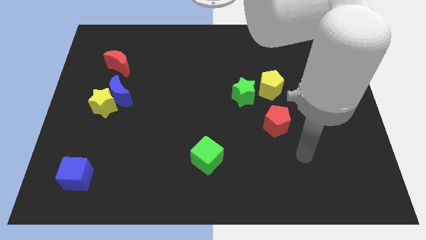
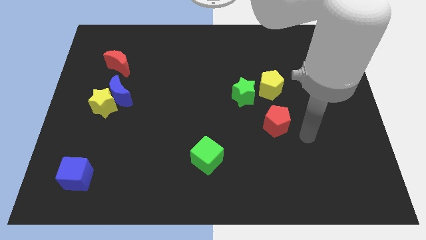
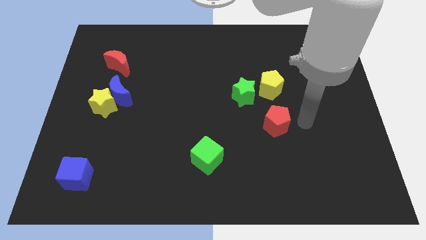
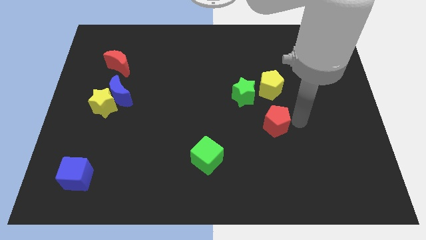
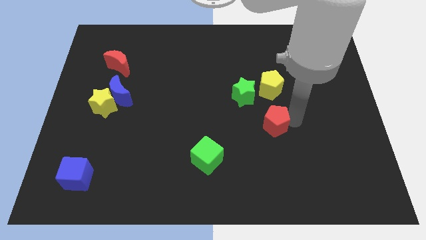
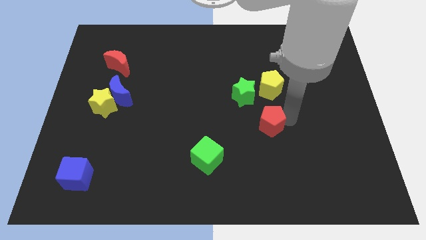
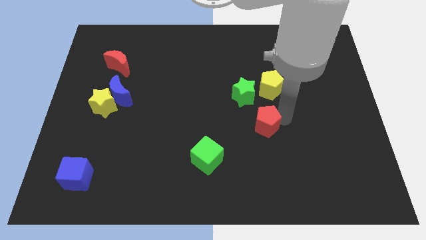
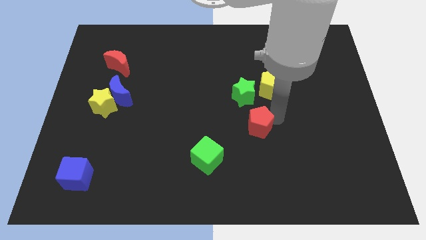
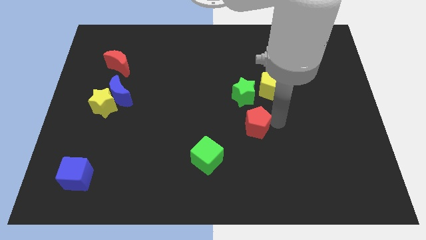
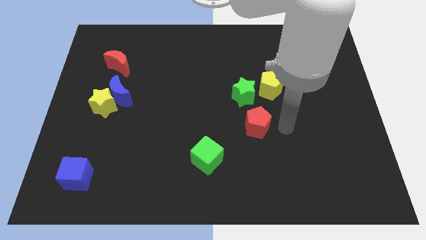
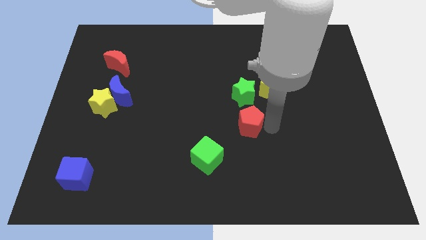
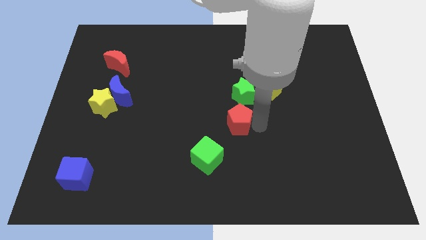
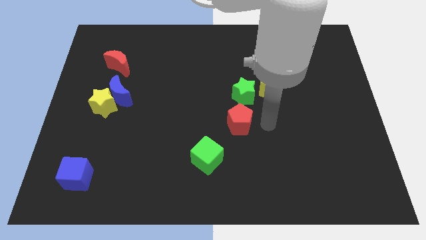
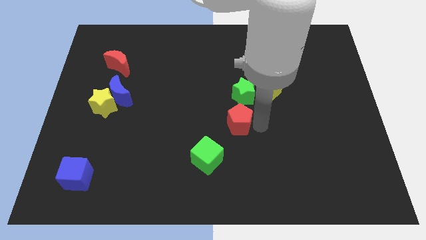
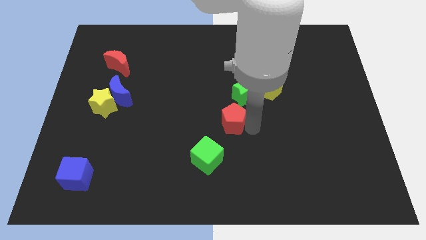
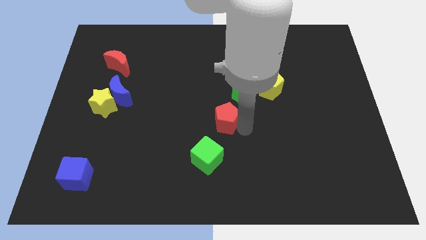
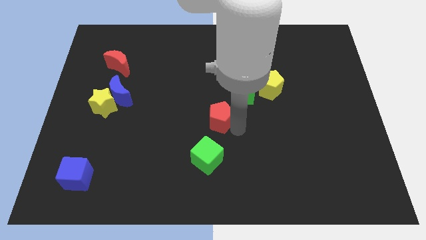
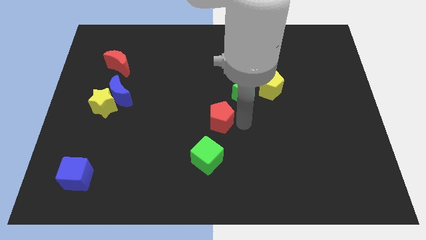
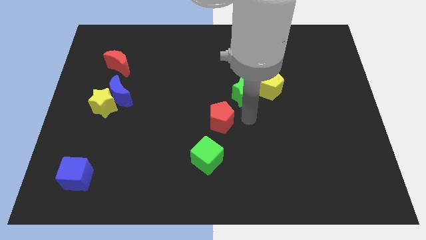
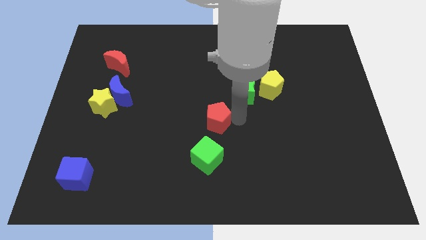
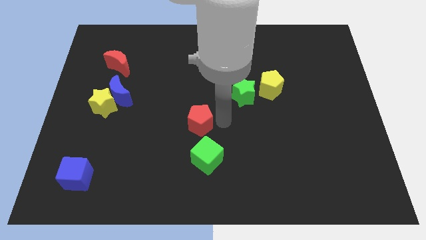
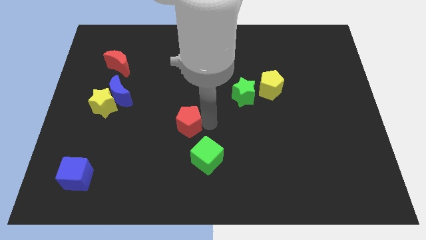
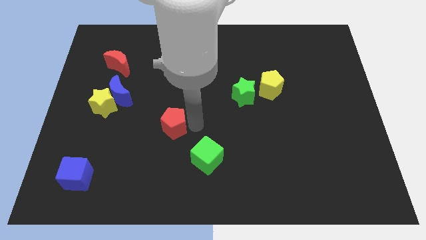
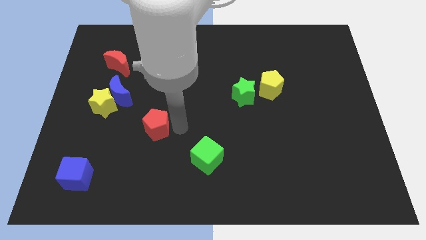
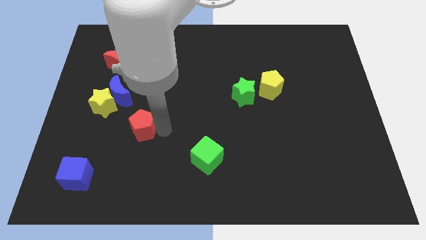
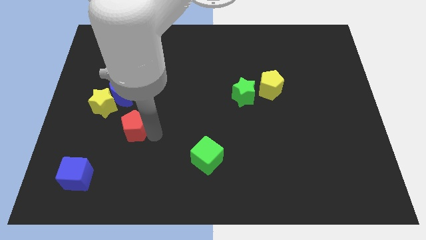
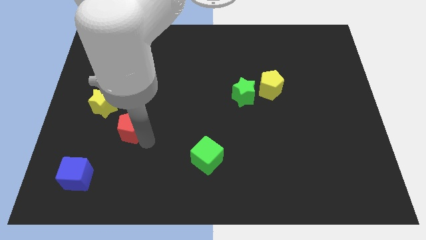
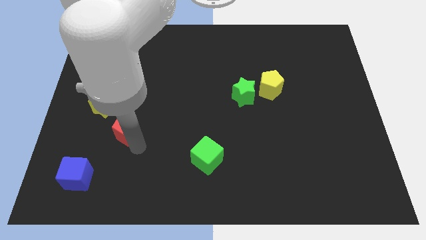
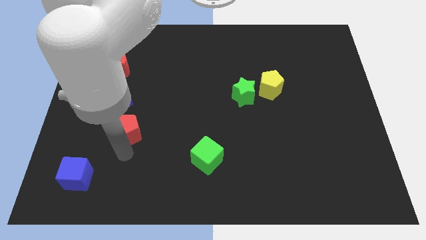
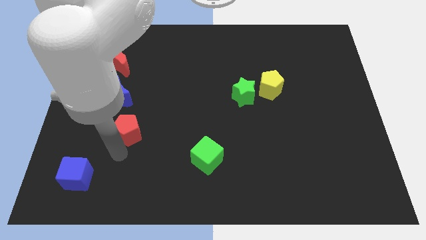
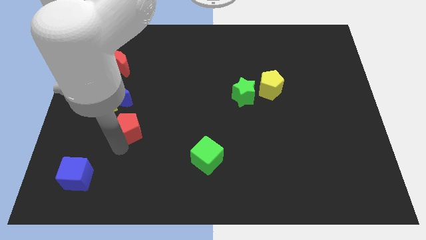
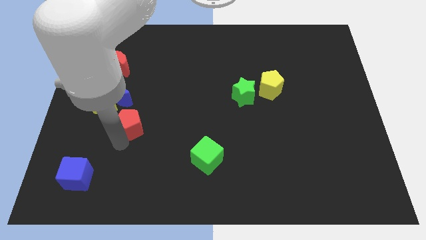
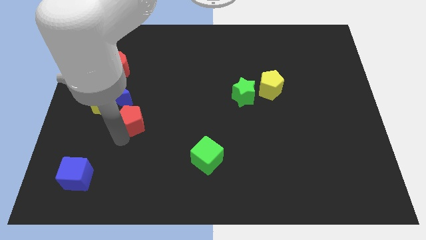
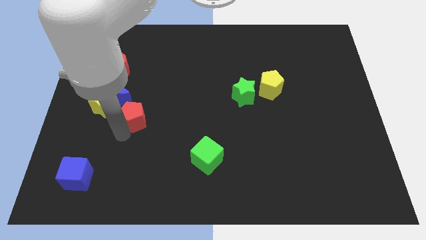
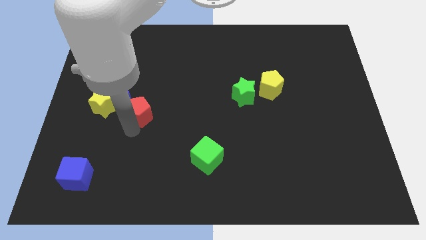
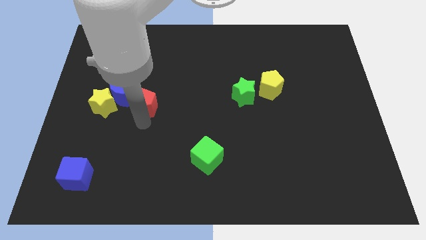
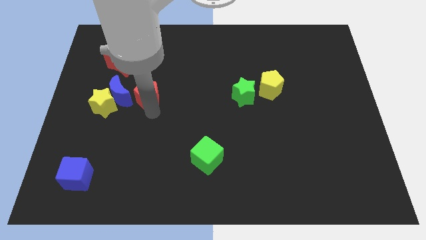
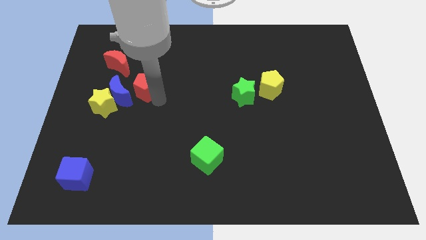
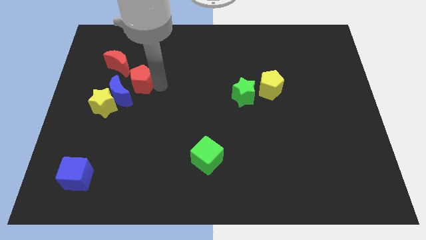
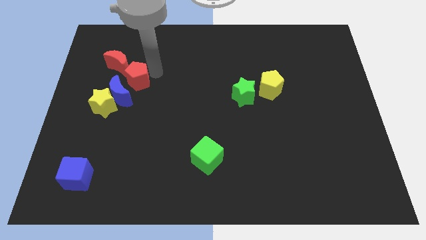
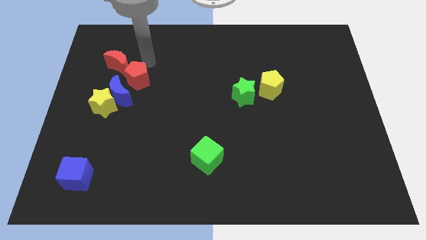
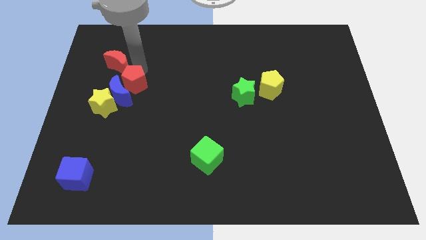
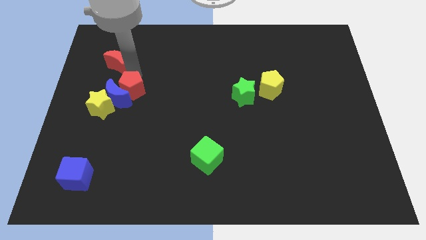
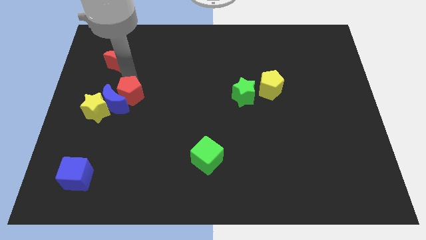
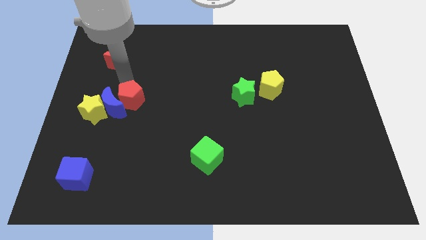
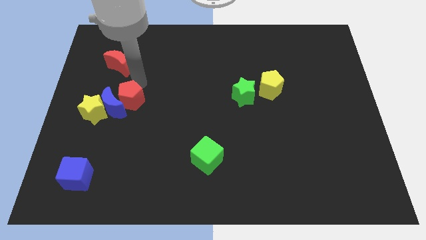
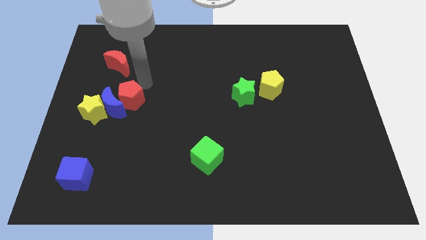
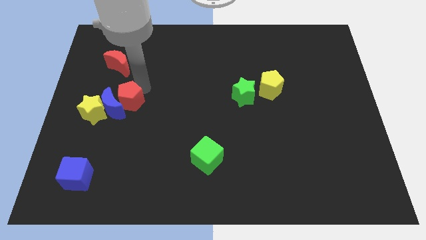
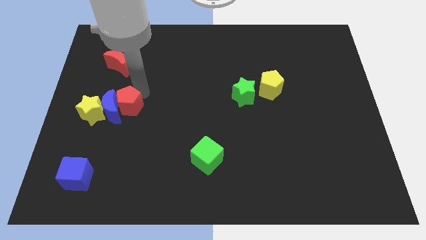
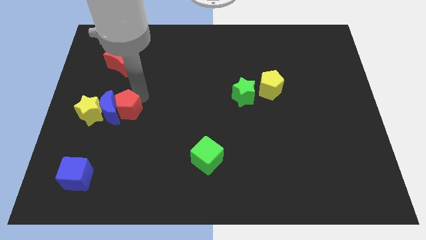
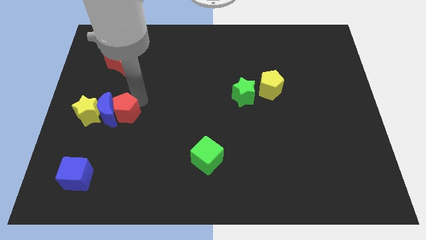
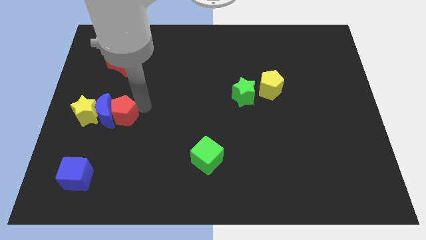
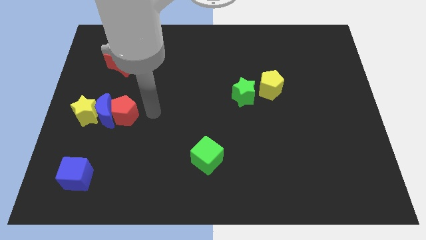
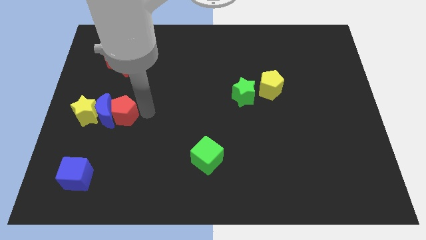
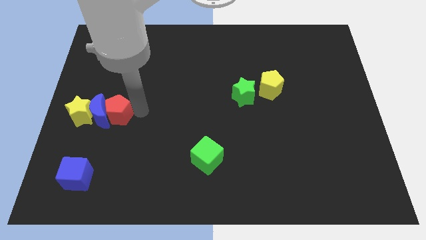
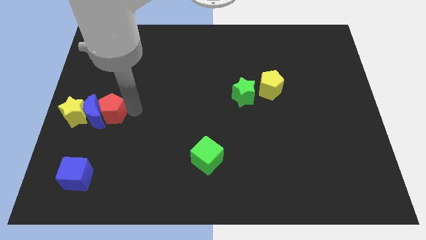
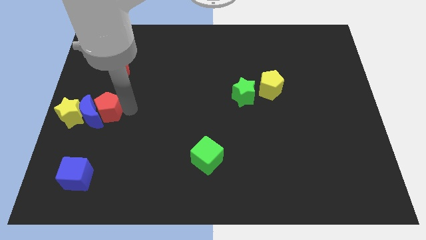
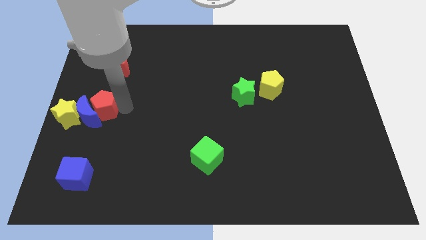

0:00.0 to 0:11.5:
move the red pentagon to the center left
